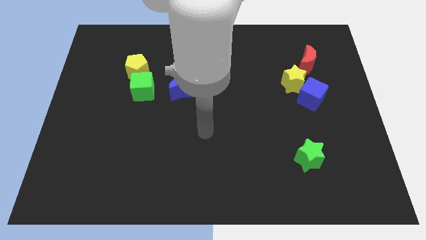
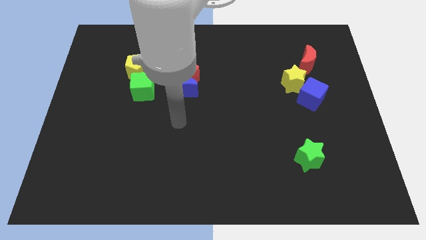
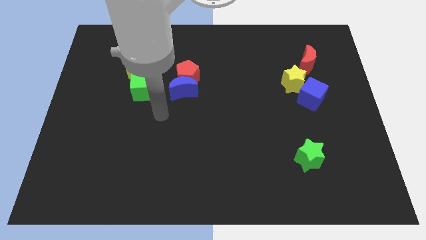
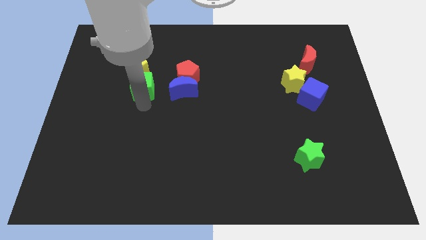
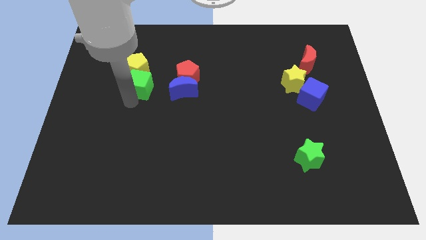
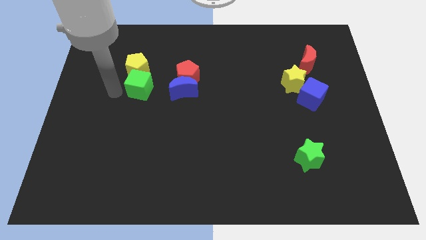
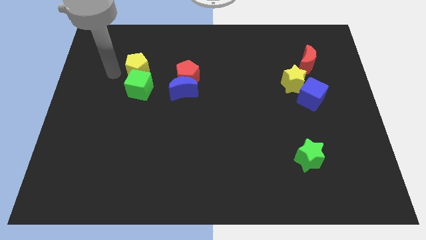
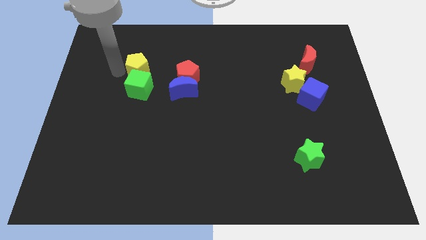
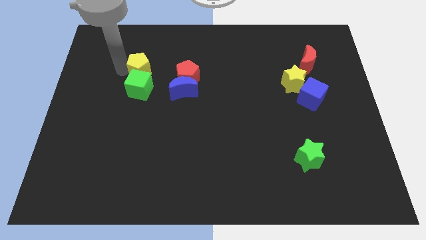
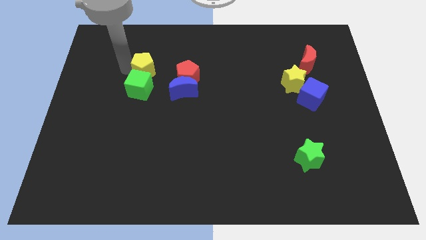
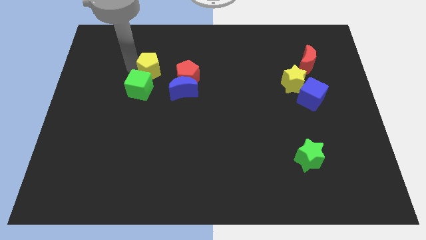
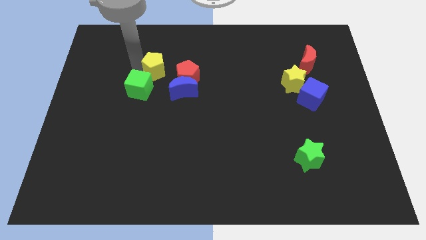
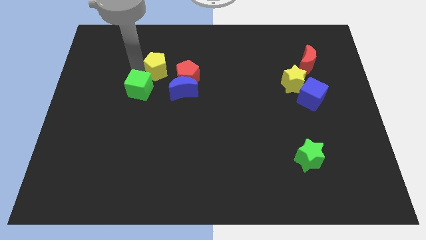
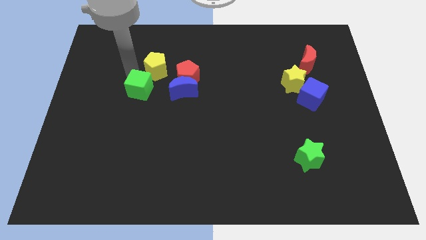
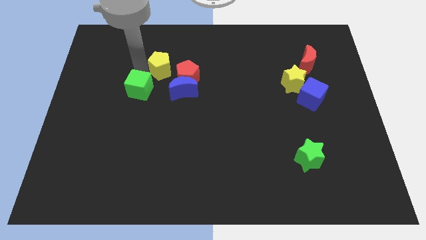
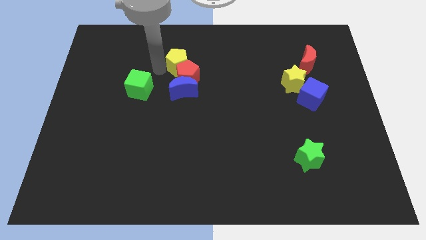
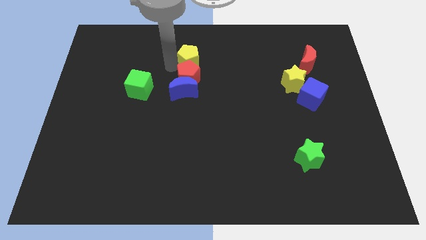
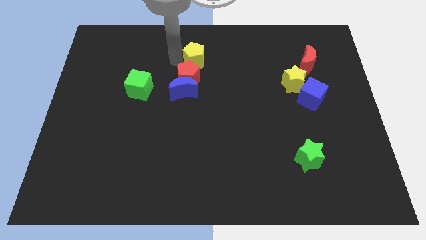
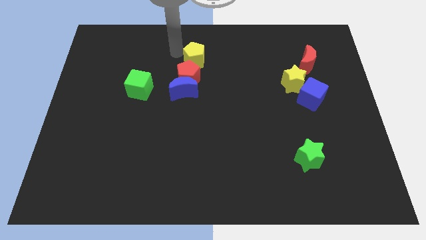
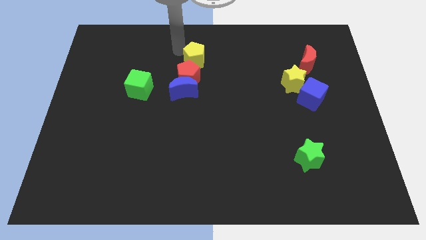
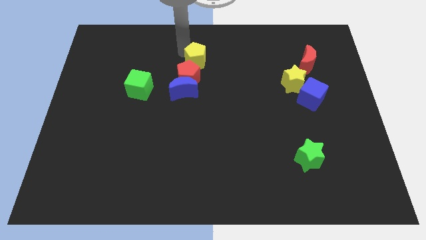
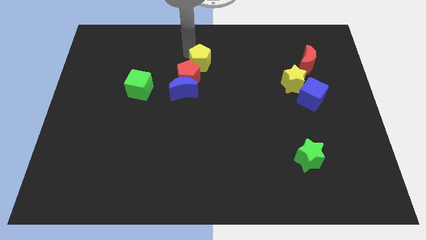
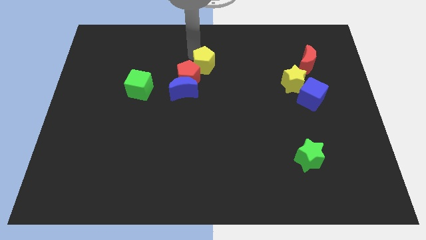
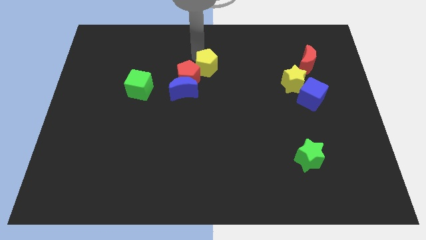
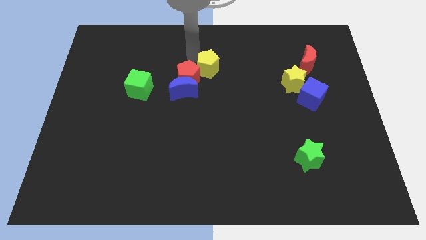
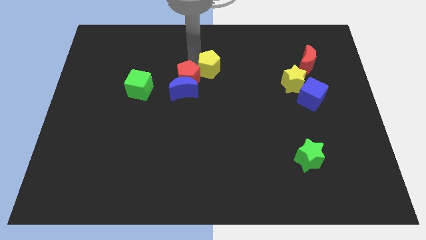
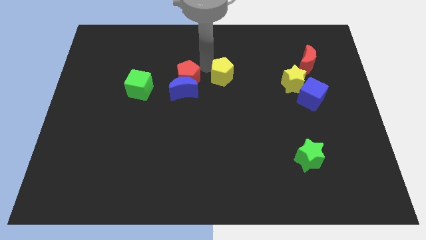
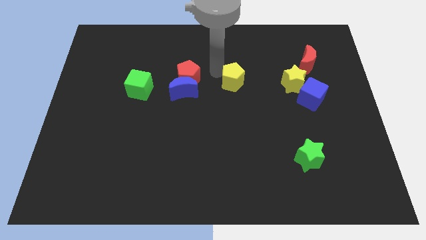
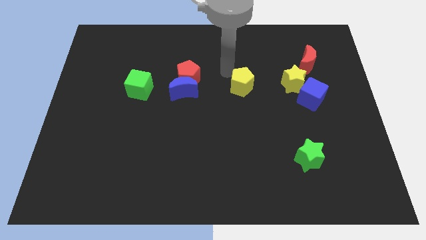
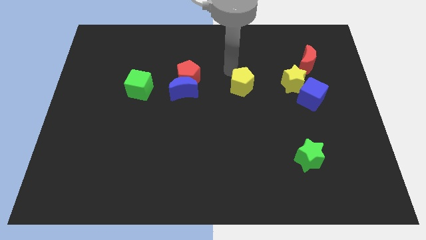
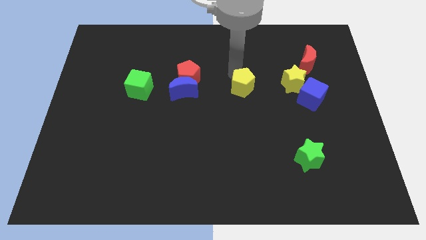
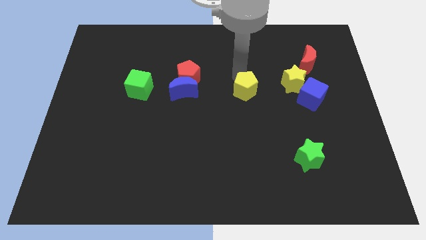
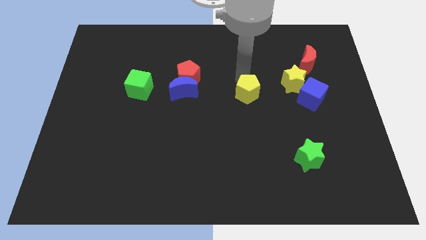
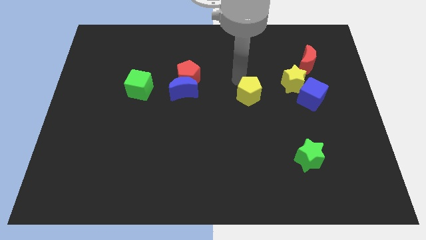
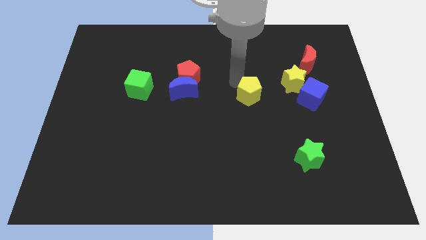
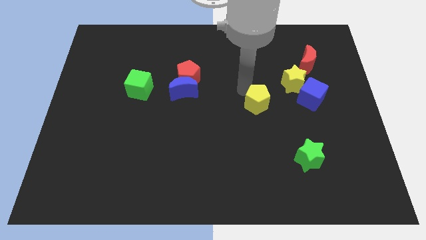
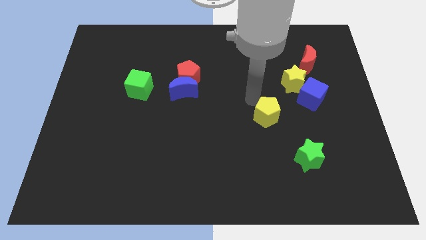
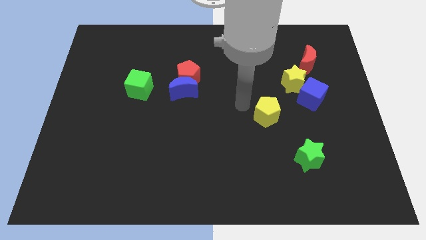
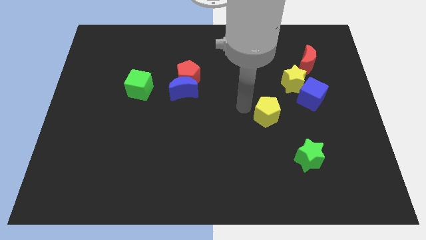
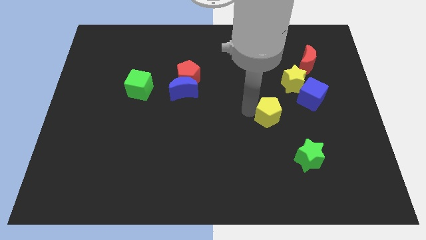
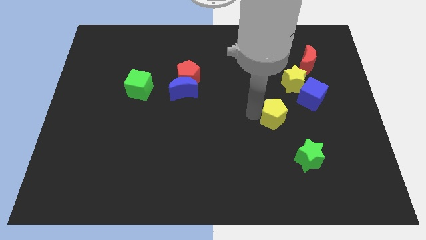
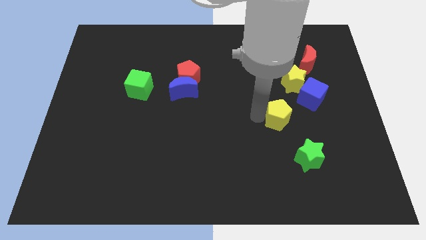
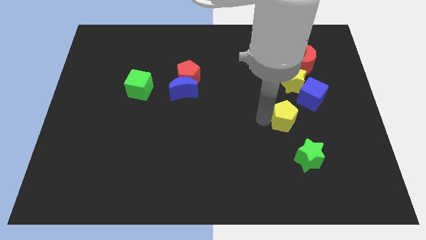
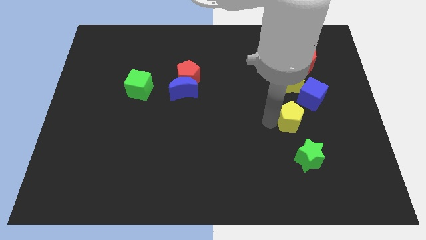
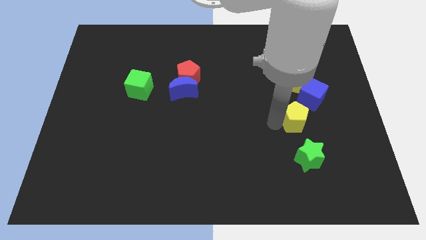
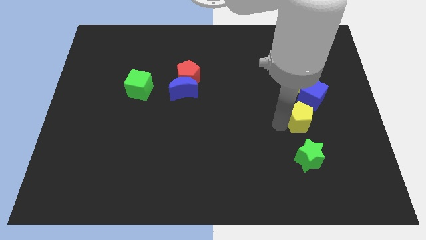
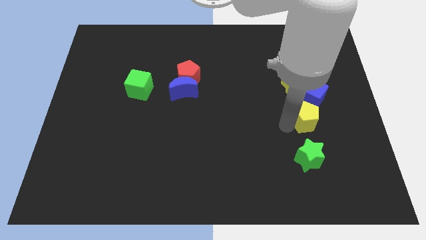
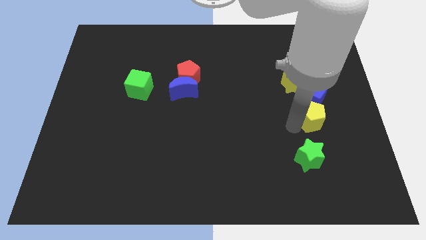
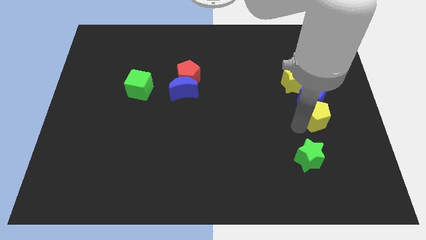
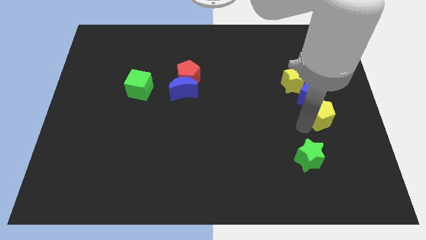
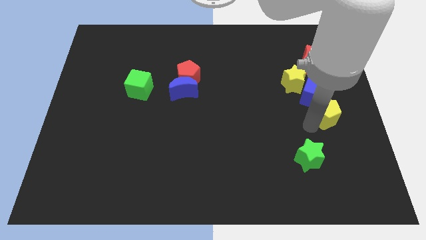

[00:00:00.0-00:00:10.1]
put the yellow pentagon to the right side

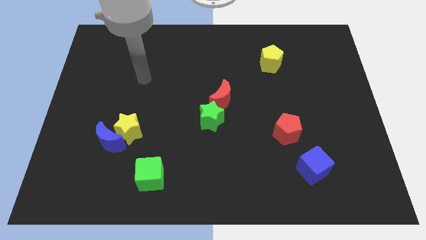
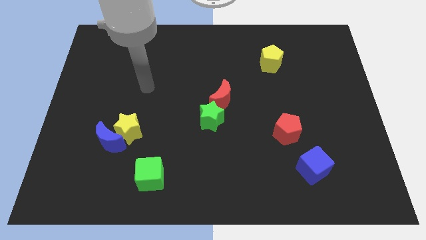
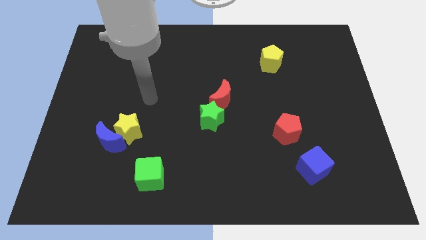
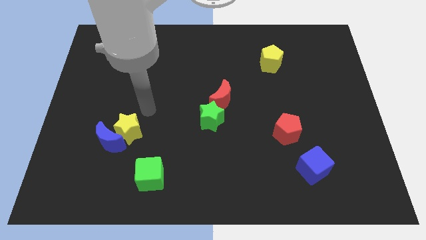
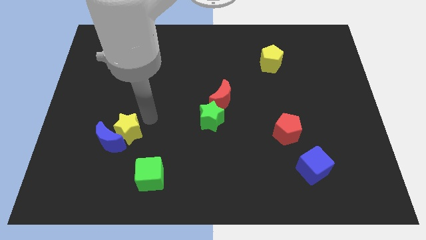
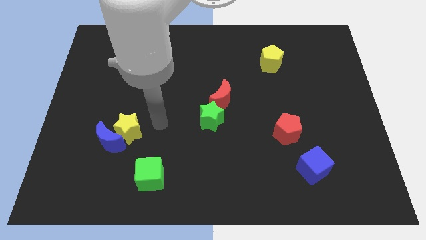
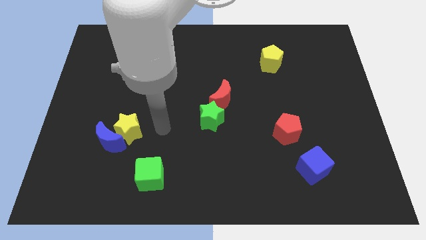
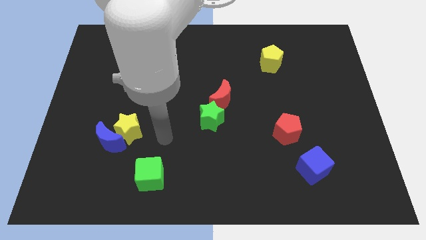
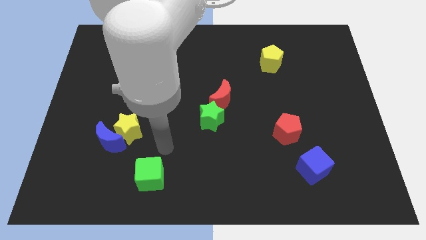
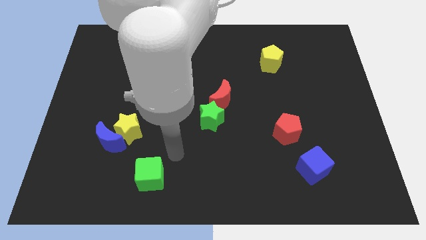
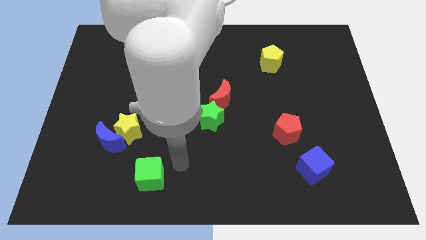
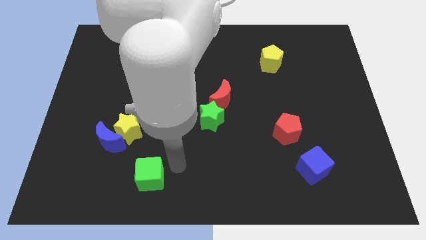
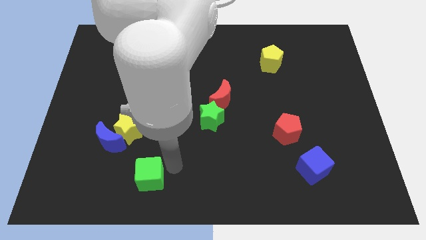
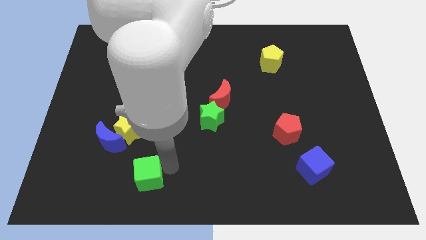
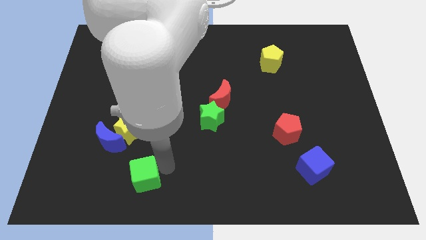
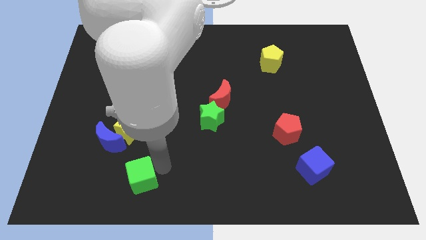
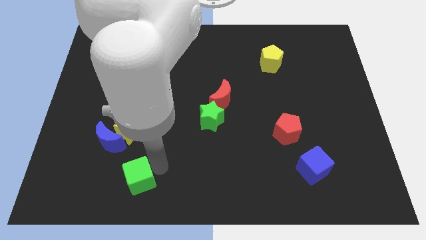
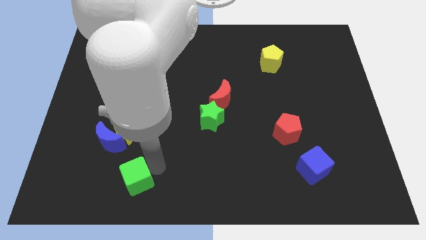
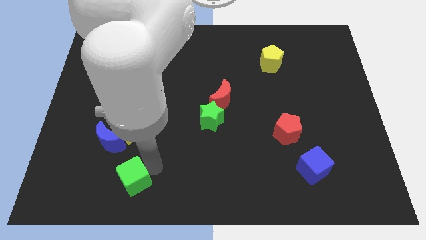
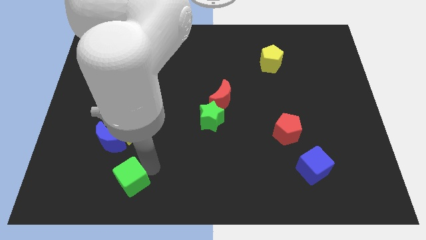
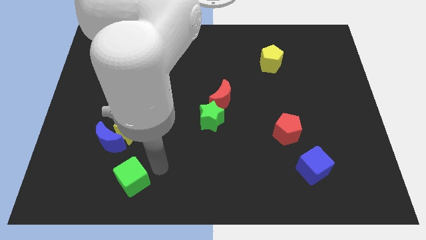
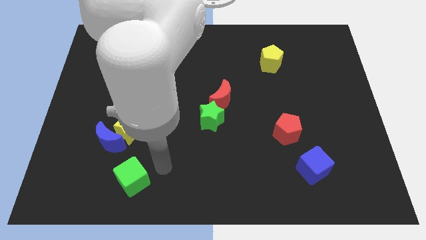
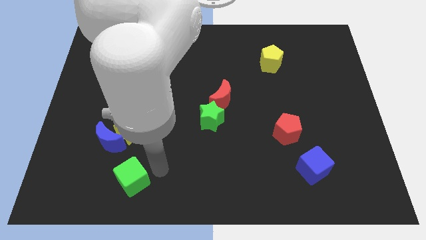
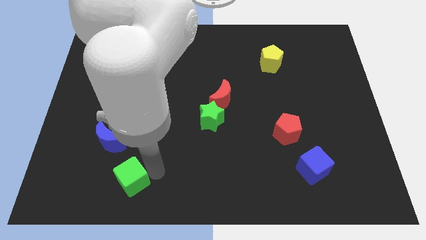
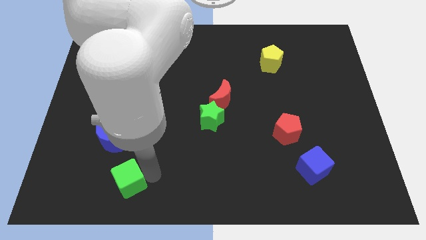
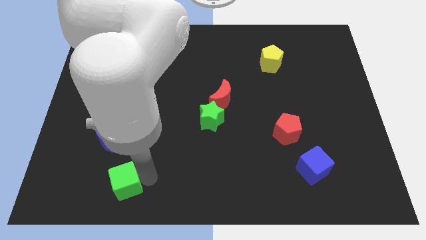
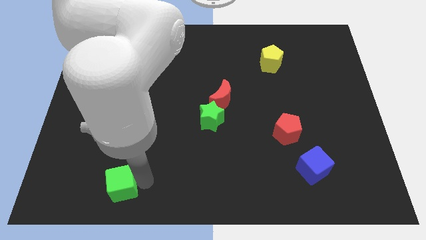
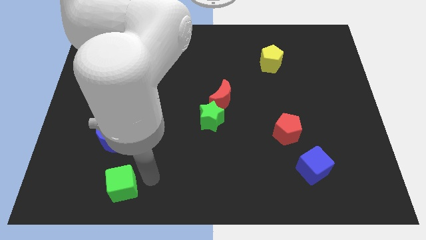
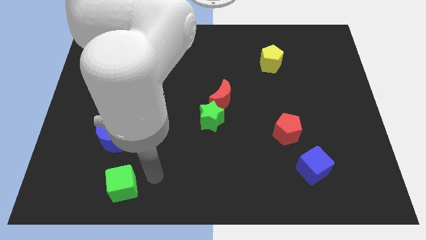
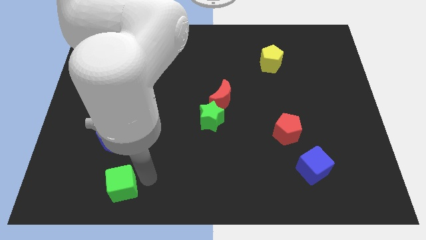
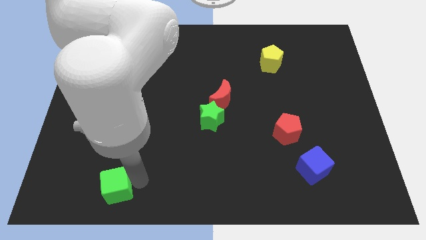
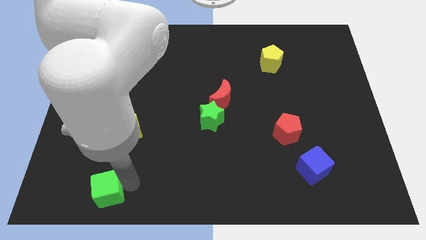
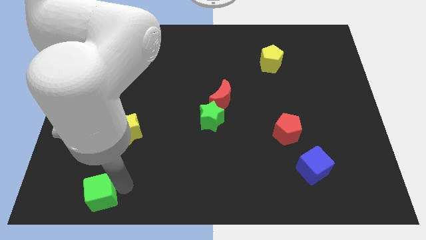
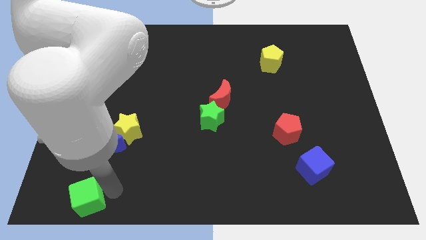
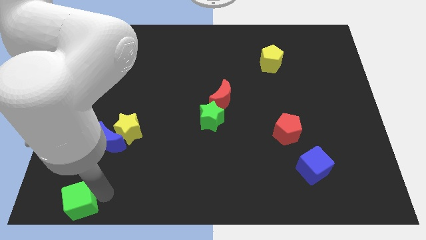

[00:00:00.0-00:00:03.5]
put the green cube to the lower left corner
